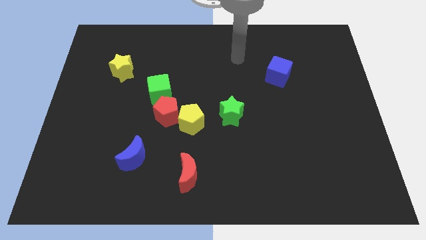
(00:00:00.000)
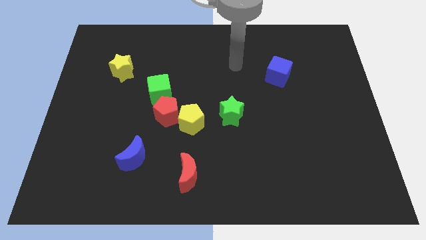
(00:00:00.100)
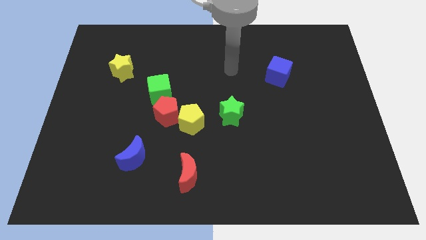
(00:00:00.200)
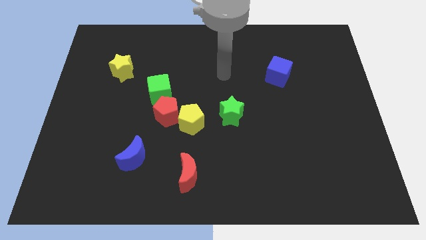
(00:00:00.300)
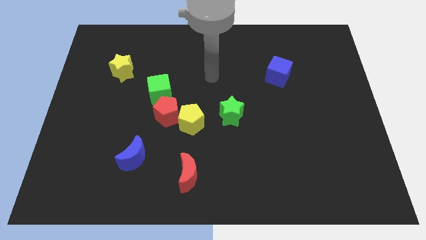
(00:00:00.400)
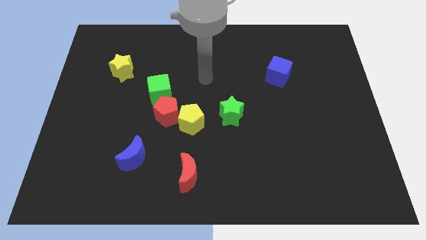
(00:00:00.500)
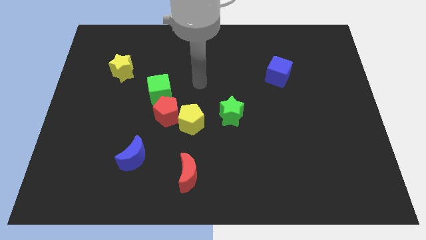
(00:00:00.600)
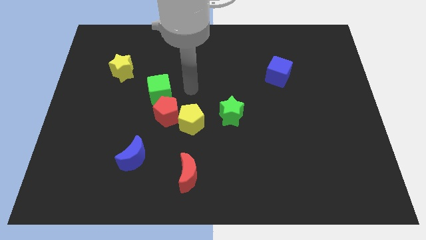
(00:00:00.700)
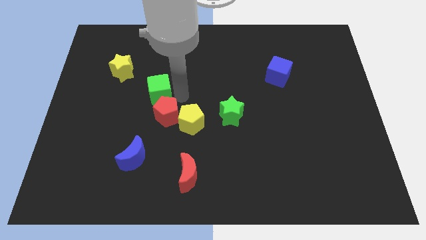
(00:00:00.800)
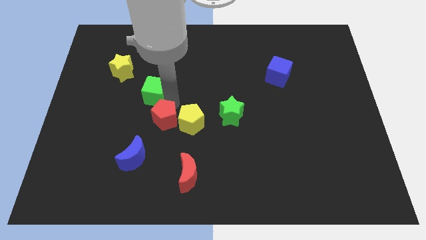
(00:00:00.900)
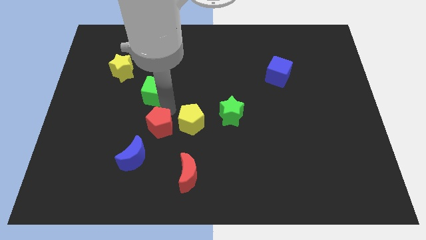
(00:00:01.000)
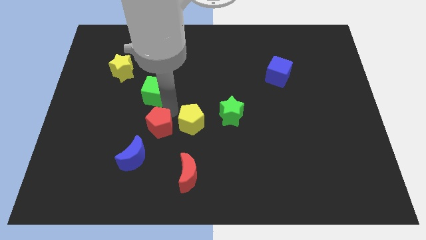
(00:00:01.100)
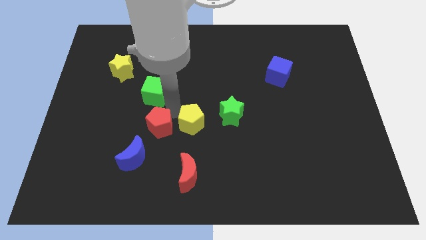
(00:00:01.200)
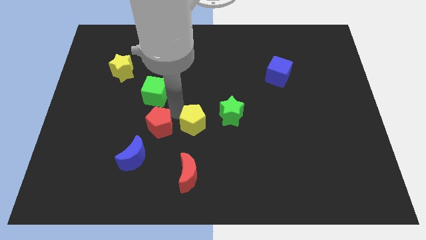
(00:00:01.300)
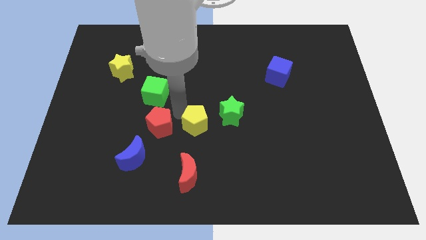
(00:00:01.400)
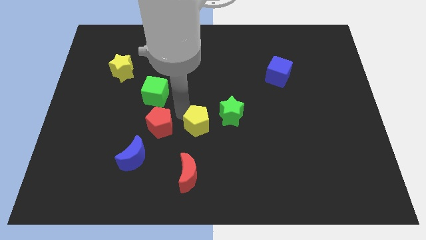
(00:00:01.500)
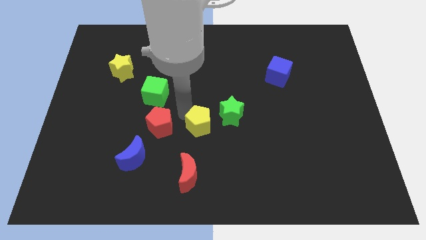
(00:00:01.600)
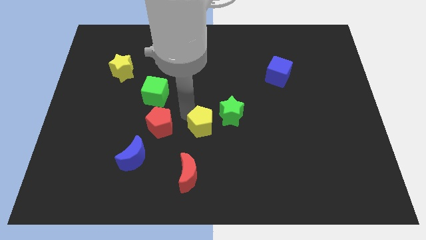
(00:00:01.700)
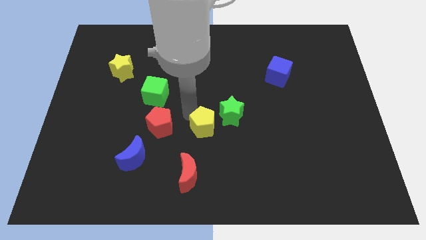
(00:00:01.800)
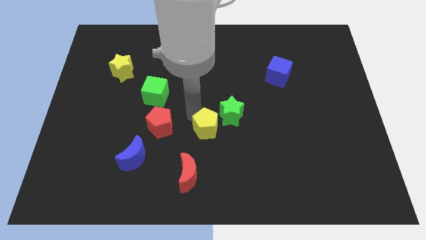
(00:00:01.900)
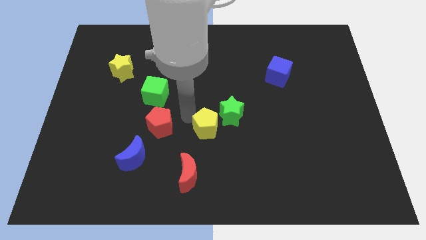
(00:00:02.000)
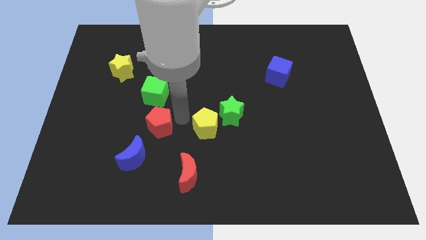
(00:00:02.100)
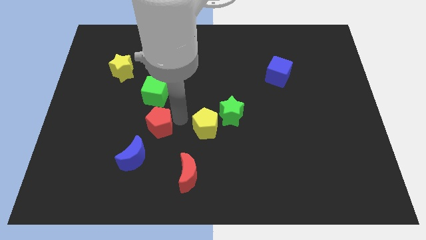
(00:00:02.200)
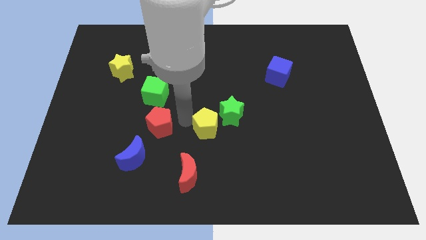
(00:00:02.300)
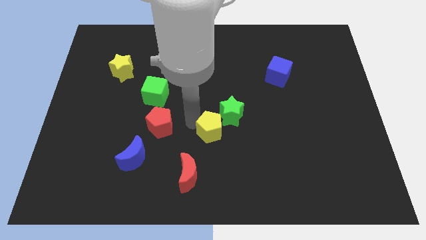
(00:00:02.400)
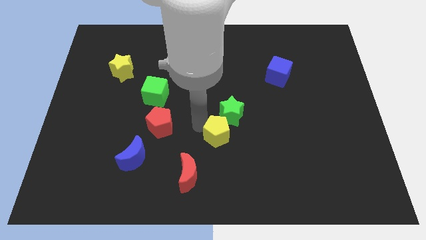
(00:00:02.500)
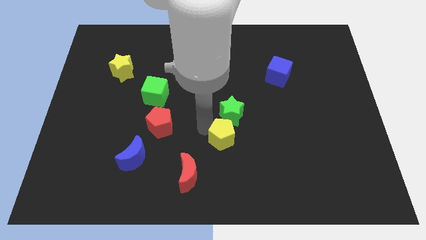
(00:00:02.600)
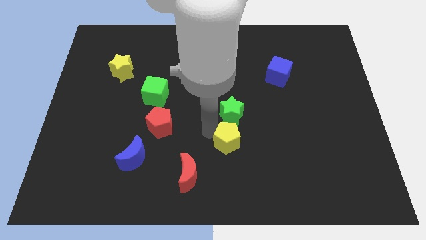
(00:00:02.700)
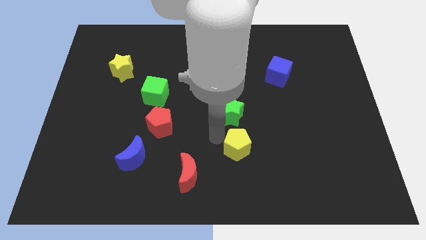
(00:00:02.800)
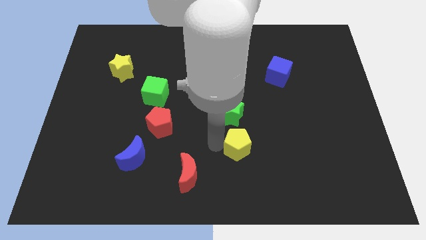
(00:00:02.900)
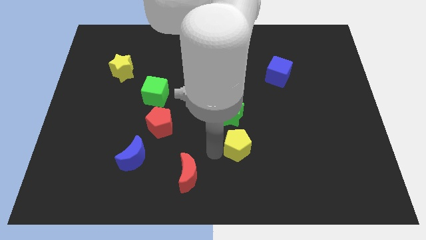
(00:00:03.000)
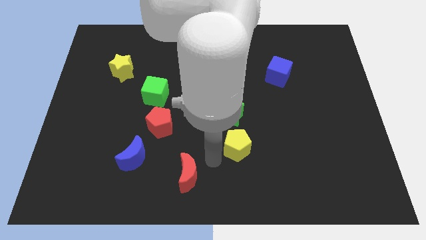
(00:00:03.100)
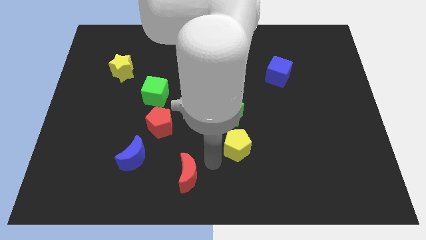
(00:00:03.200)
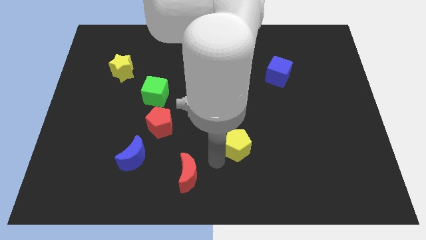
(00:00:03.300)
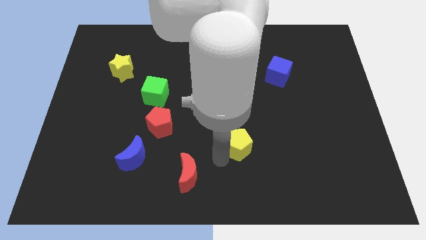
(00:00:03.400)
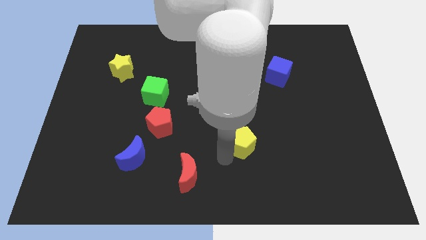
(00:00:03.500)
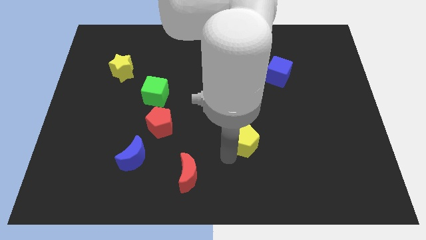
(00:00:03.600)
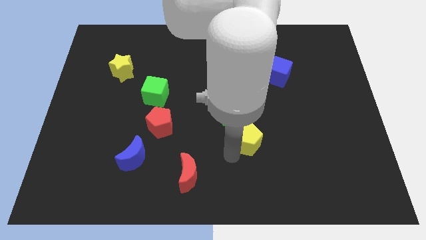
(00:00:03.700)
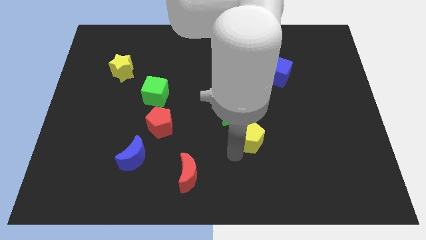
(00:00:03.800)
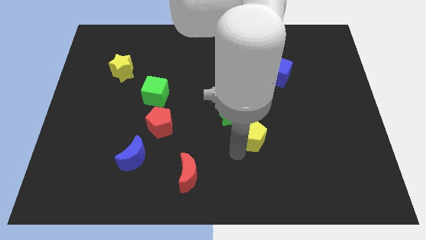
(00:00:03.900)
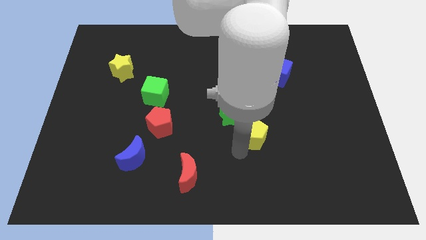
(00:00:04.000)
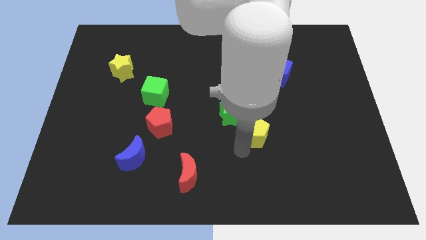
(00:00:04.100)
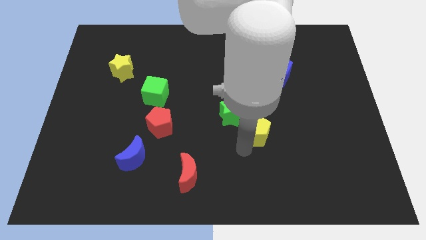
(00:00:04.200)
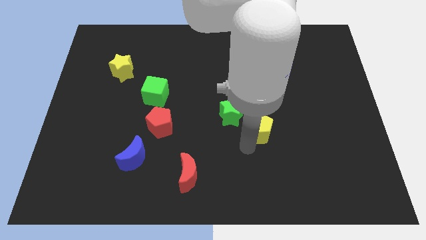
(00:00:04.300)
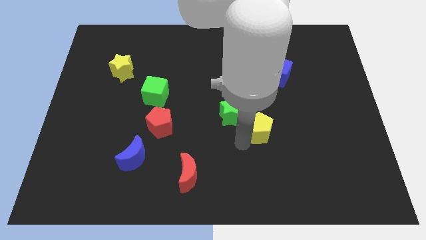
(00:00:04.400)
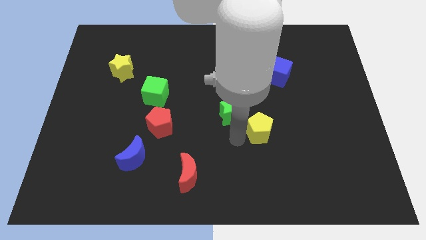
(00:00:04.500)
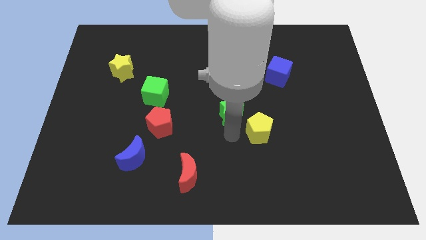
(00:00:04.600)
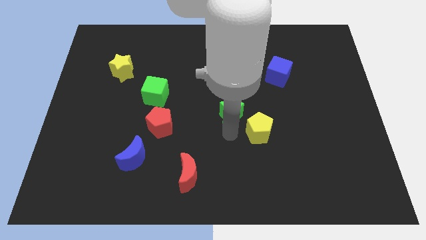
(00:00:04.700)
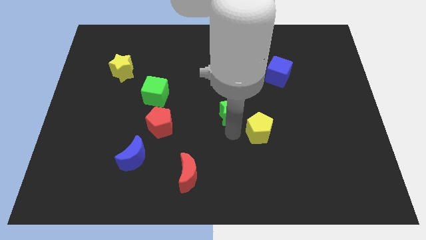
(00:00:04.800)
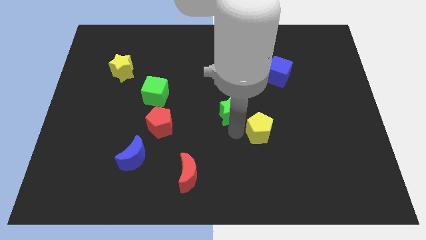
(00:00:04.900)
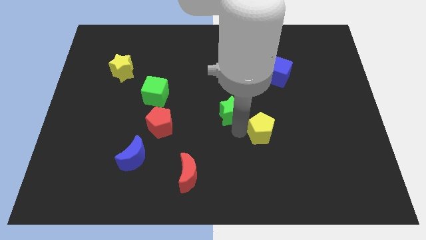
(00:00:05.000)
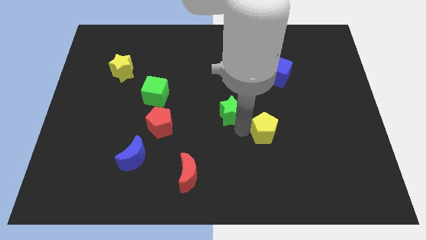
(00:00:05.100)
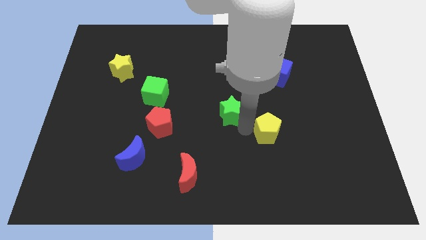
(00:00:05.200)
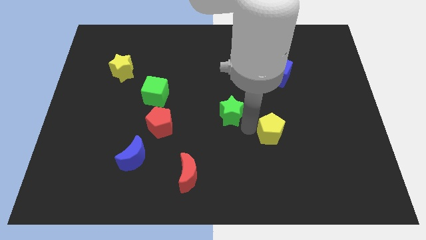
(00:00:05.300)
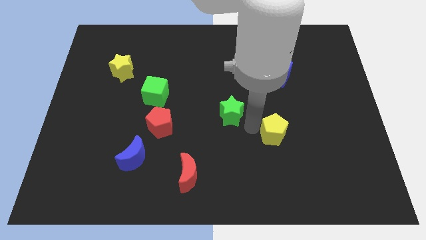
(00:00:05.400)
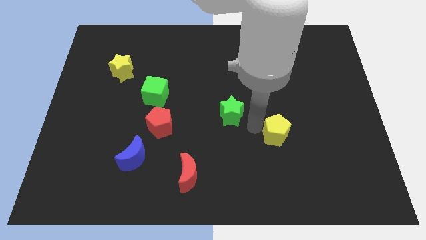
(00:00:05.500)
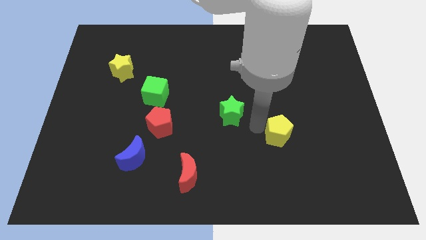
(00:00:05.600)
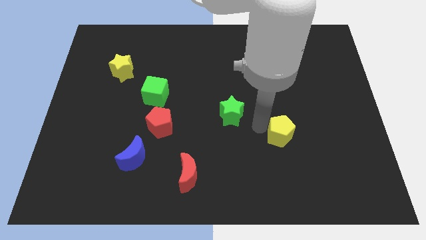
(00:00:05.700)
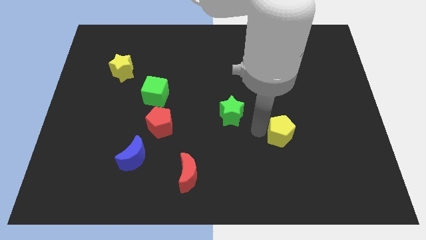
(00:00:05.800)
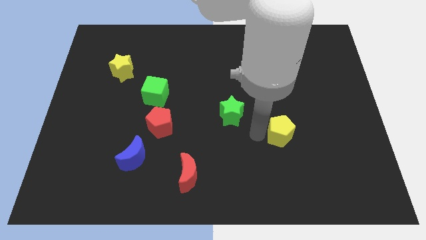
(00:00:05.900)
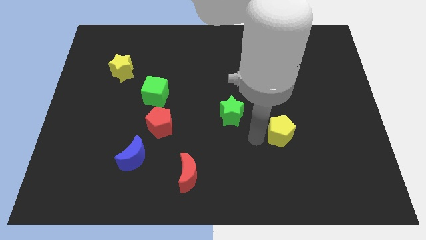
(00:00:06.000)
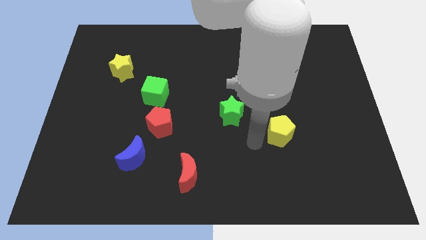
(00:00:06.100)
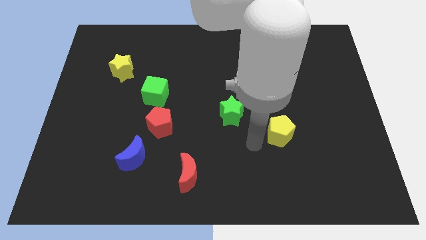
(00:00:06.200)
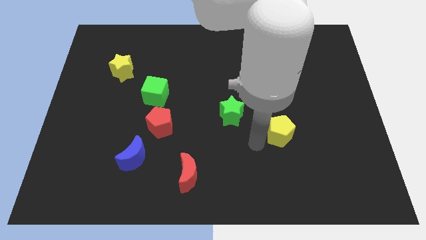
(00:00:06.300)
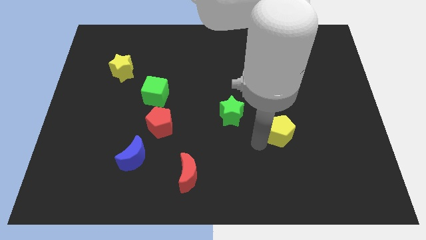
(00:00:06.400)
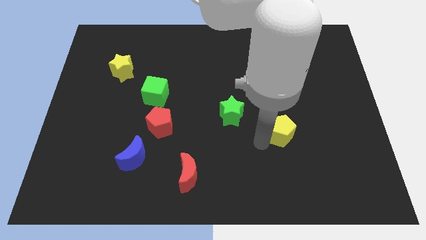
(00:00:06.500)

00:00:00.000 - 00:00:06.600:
move the yellow pentagon to the right

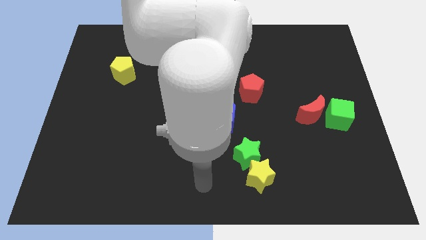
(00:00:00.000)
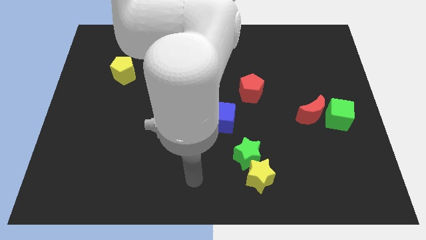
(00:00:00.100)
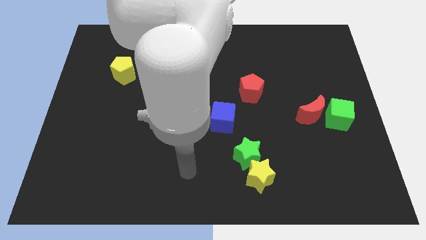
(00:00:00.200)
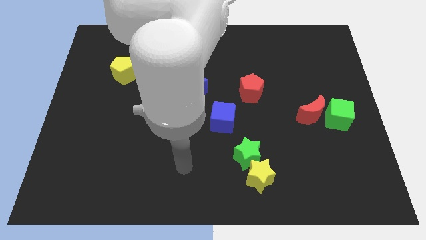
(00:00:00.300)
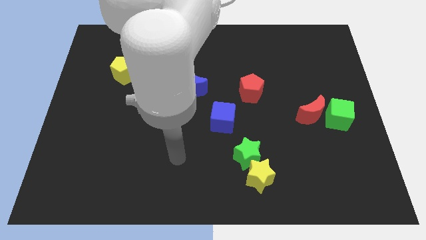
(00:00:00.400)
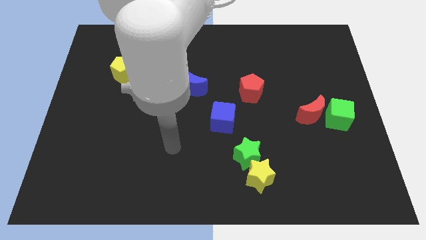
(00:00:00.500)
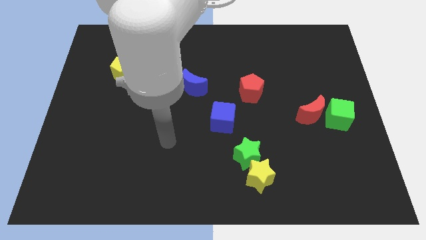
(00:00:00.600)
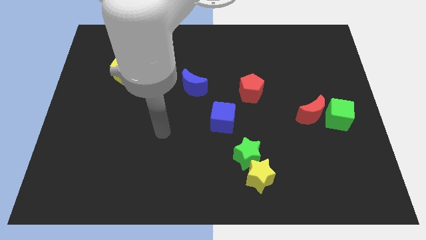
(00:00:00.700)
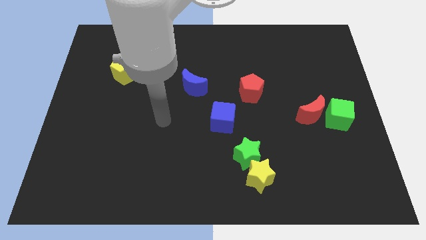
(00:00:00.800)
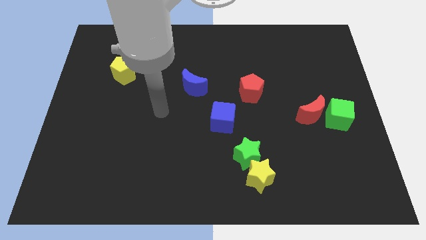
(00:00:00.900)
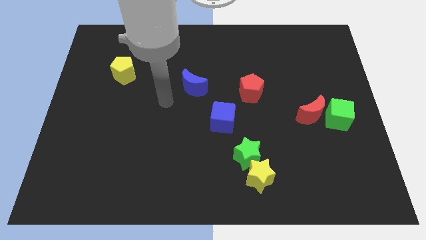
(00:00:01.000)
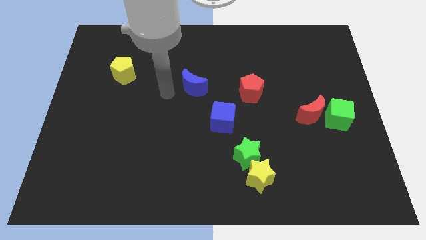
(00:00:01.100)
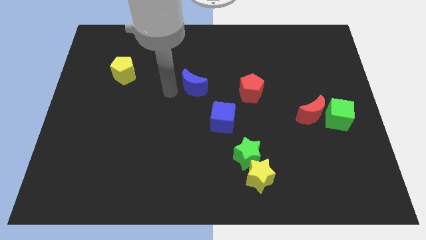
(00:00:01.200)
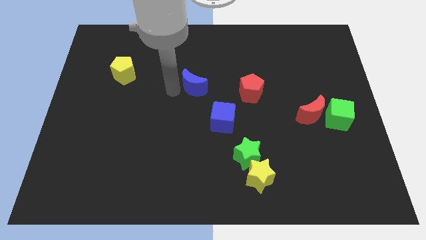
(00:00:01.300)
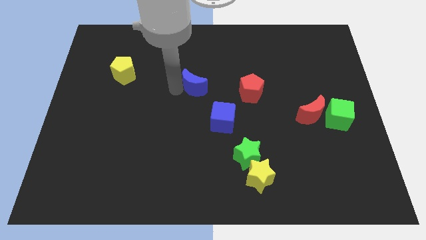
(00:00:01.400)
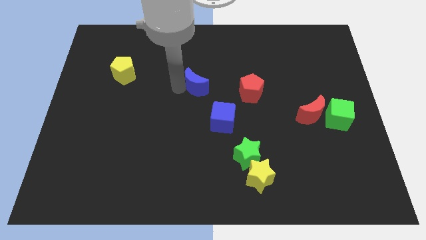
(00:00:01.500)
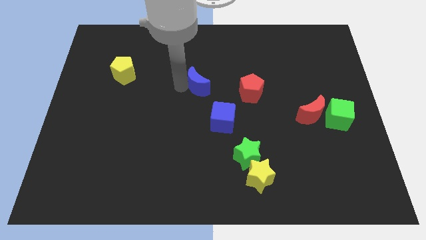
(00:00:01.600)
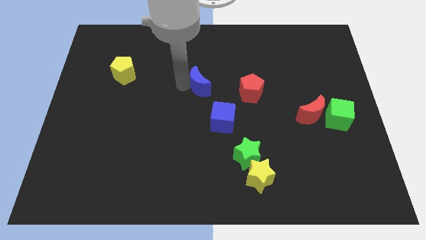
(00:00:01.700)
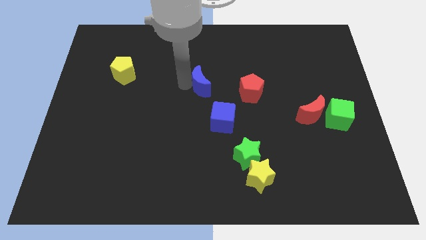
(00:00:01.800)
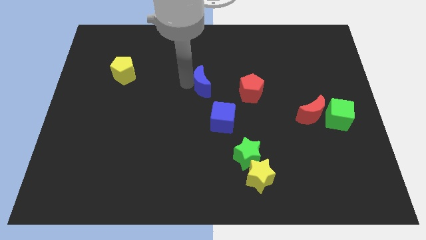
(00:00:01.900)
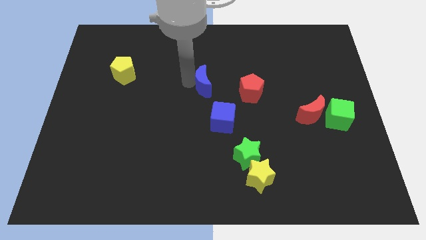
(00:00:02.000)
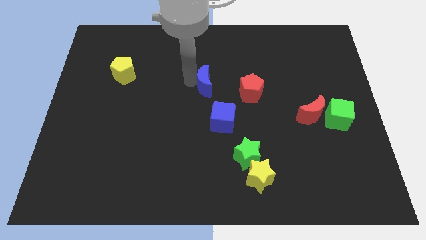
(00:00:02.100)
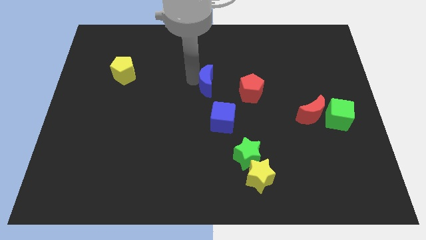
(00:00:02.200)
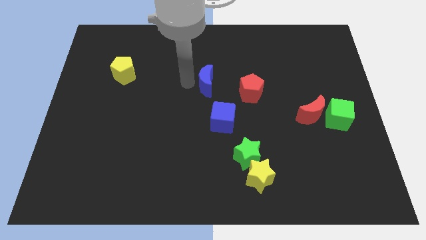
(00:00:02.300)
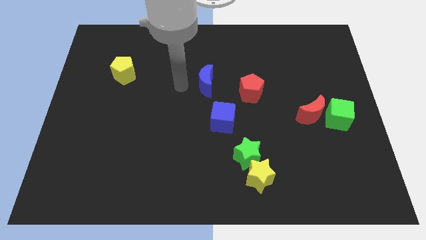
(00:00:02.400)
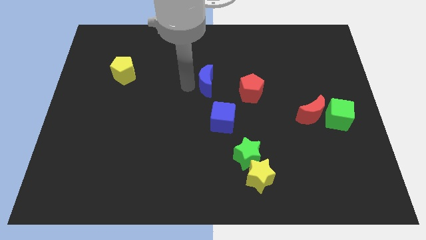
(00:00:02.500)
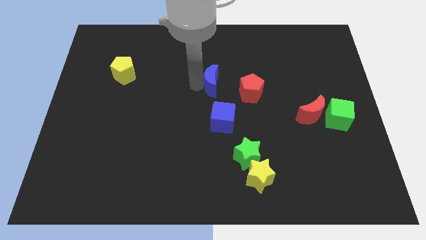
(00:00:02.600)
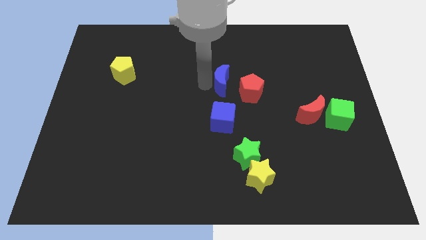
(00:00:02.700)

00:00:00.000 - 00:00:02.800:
slightly move the blue moon to the right
